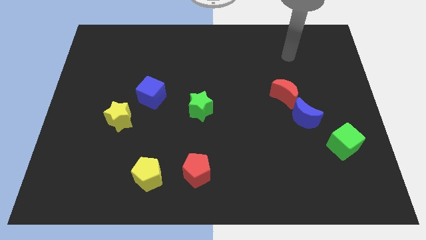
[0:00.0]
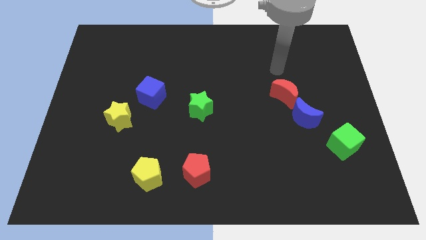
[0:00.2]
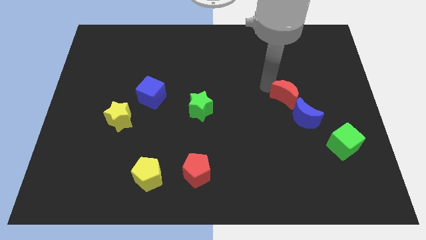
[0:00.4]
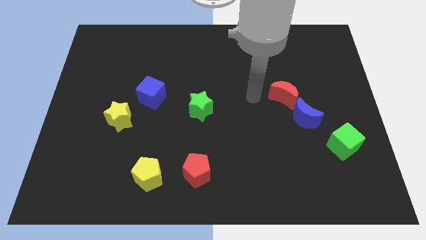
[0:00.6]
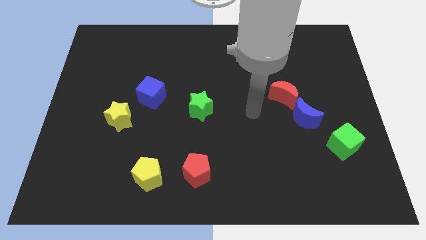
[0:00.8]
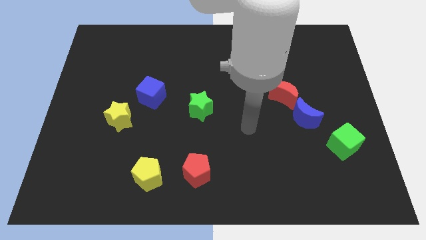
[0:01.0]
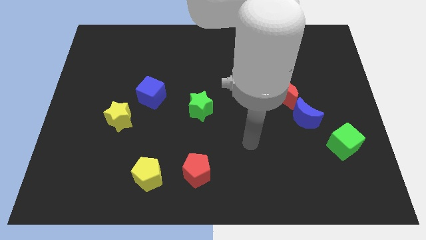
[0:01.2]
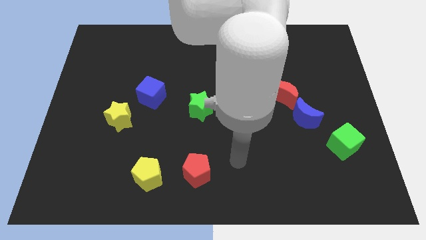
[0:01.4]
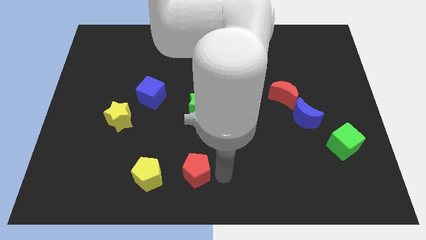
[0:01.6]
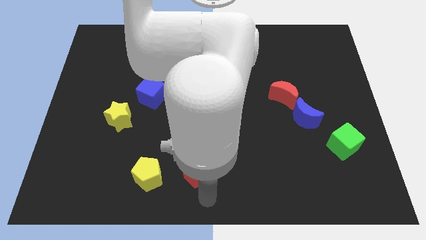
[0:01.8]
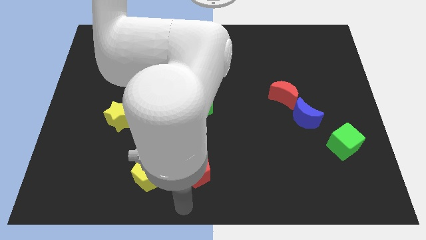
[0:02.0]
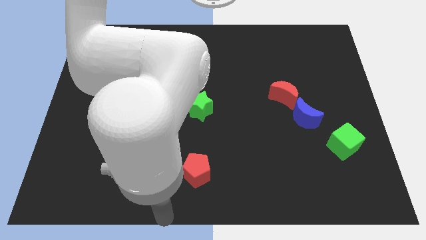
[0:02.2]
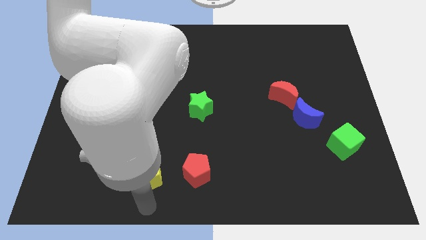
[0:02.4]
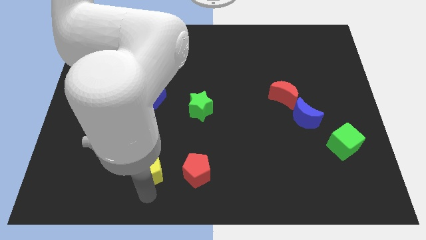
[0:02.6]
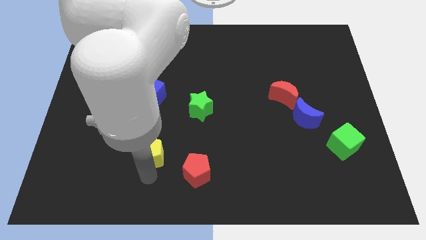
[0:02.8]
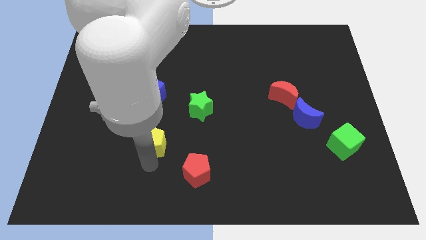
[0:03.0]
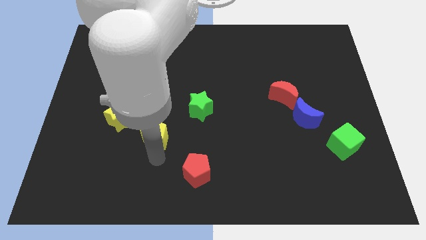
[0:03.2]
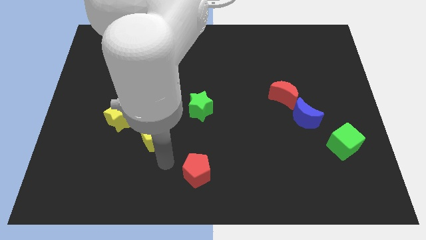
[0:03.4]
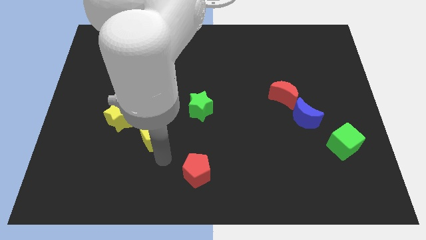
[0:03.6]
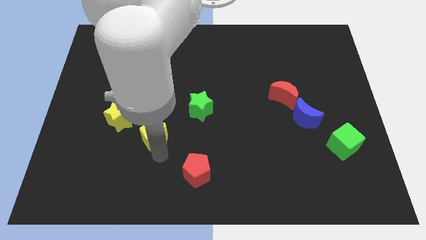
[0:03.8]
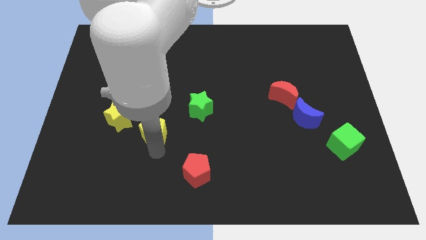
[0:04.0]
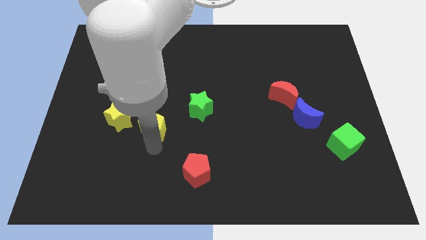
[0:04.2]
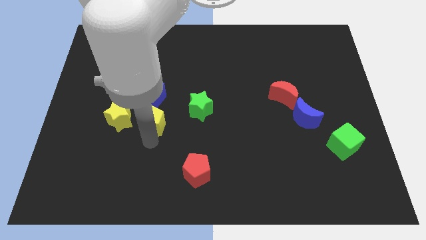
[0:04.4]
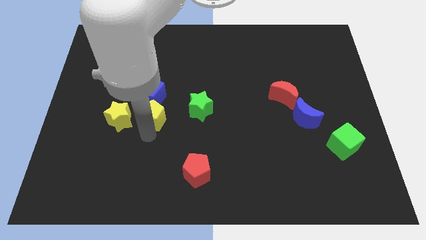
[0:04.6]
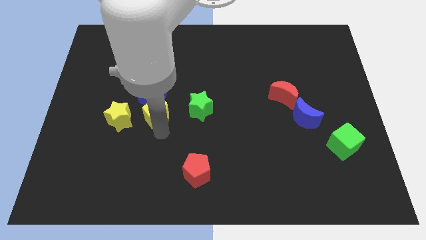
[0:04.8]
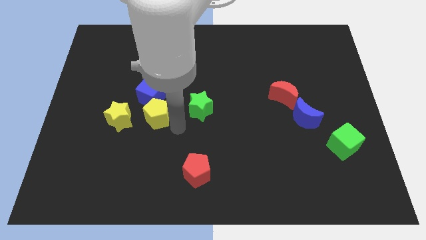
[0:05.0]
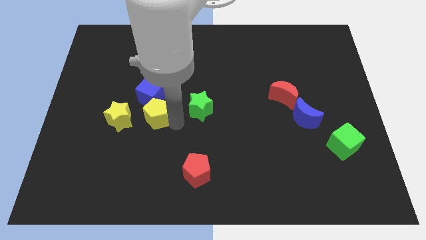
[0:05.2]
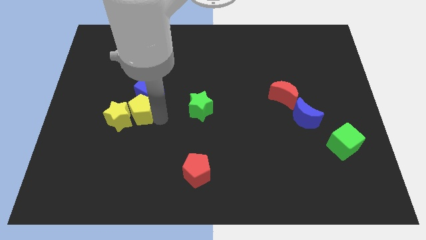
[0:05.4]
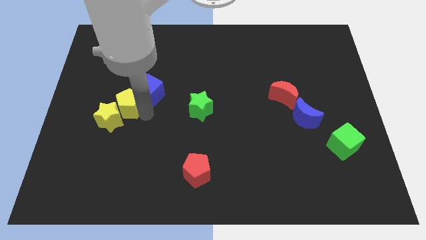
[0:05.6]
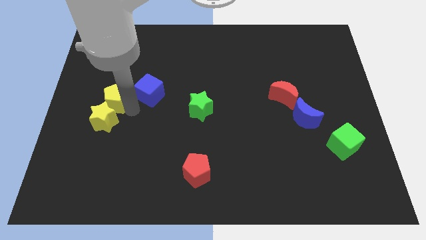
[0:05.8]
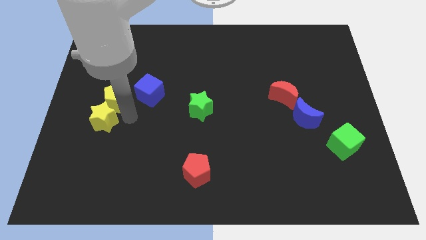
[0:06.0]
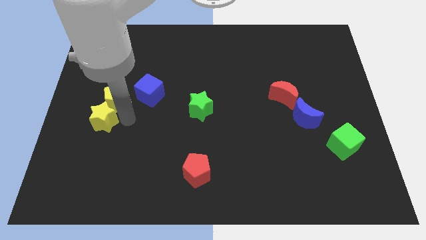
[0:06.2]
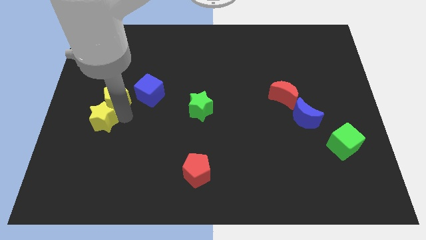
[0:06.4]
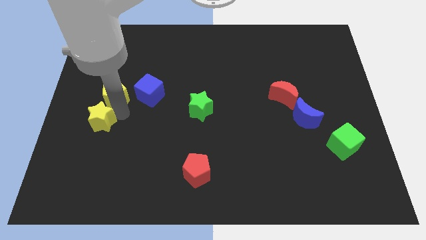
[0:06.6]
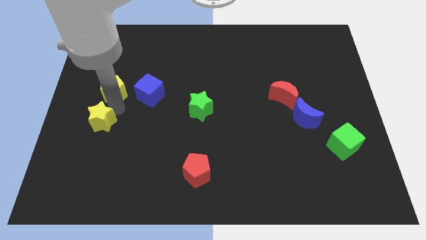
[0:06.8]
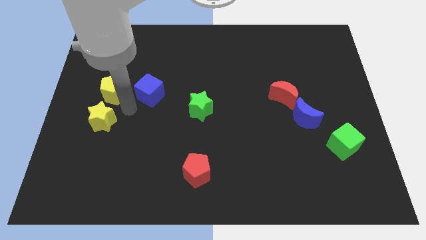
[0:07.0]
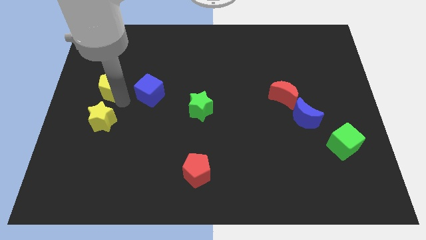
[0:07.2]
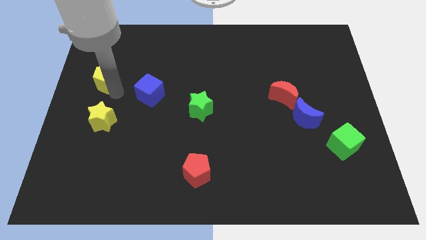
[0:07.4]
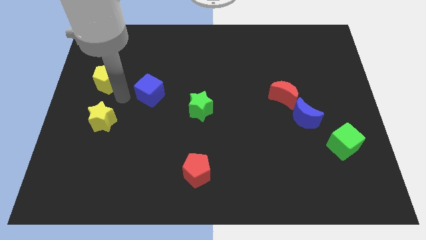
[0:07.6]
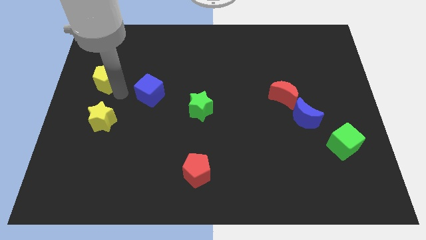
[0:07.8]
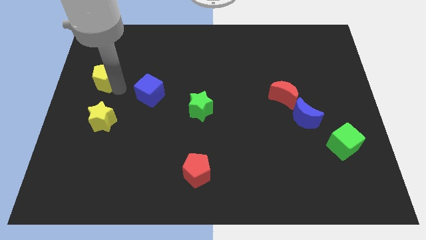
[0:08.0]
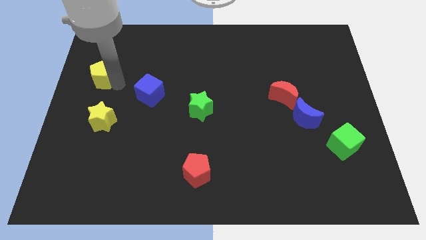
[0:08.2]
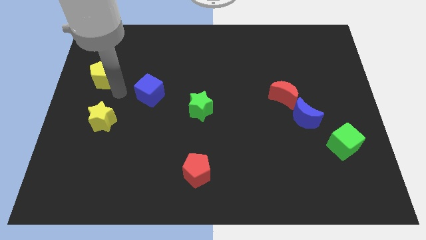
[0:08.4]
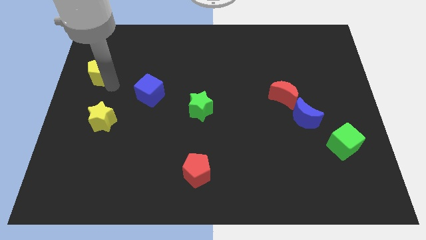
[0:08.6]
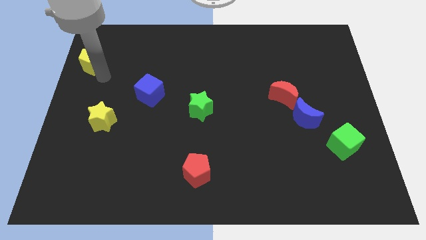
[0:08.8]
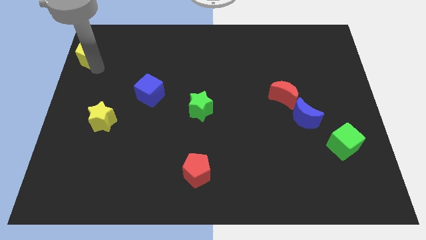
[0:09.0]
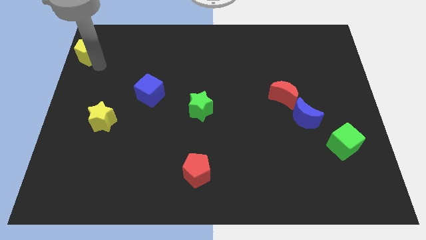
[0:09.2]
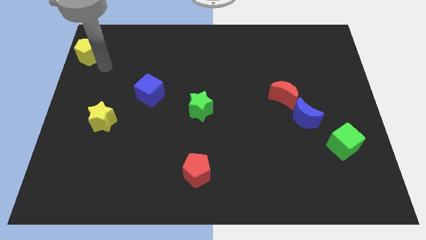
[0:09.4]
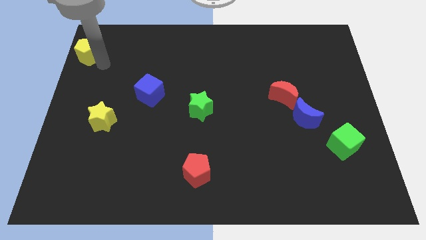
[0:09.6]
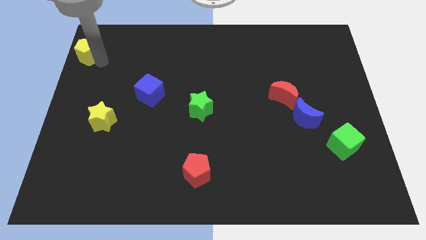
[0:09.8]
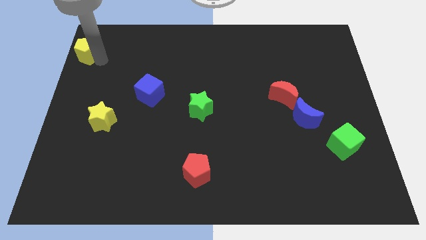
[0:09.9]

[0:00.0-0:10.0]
move the yellow pentagon to the upper left corner

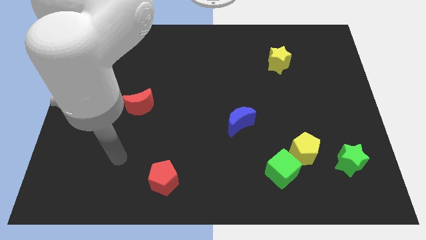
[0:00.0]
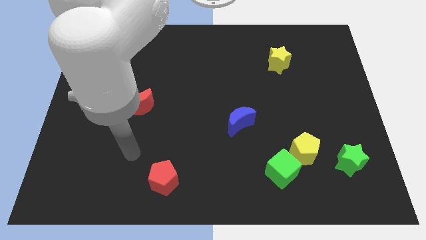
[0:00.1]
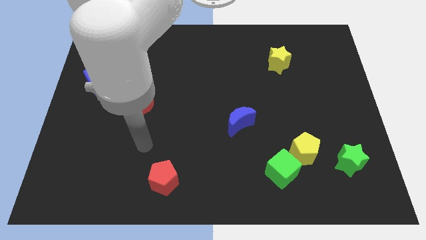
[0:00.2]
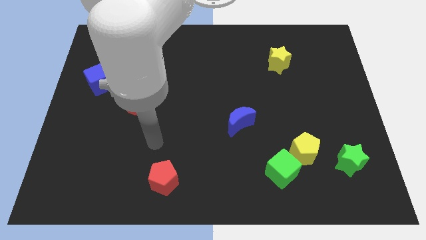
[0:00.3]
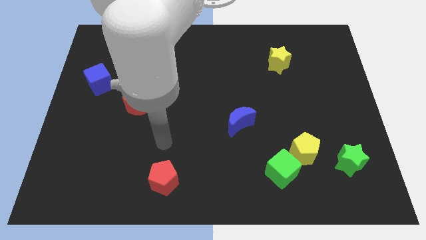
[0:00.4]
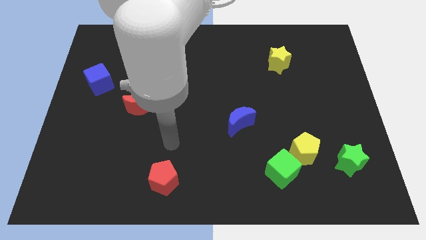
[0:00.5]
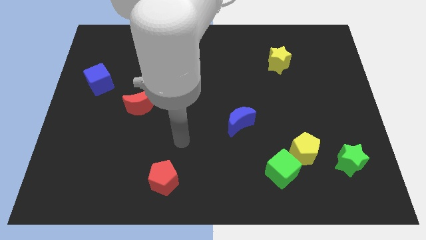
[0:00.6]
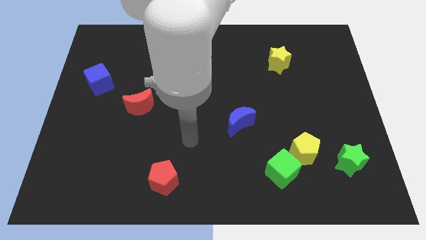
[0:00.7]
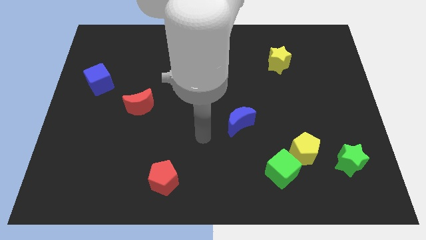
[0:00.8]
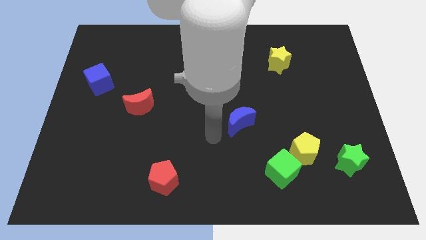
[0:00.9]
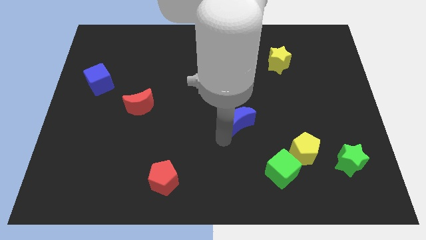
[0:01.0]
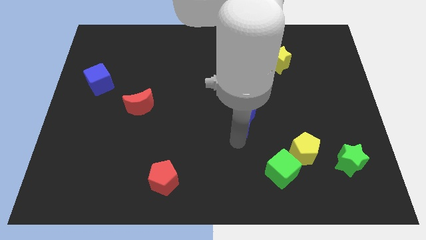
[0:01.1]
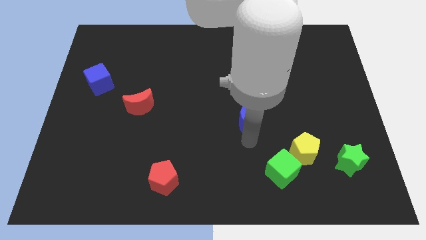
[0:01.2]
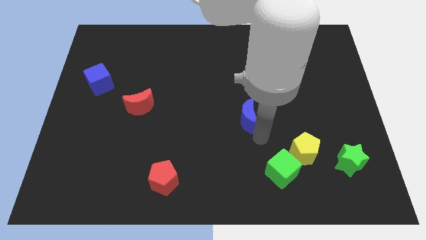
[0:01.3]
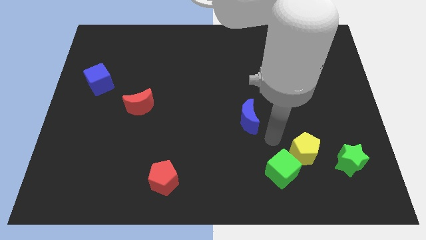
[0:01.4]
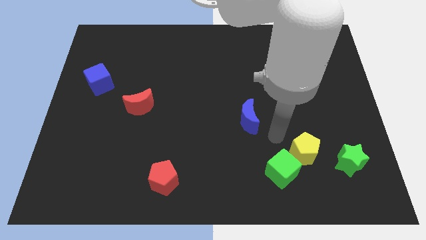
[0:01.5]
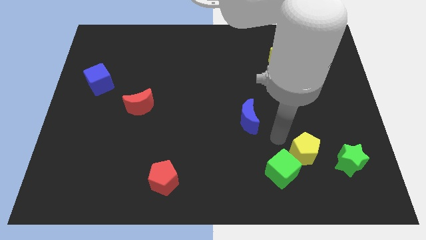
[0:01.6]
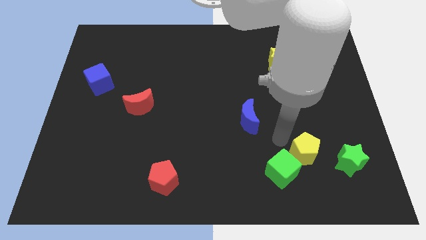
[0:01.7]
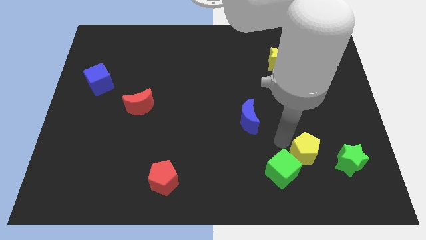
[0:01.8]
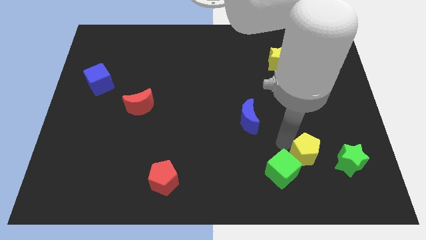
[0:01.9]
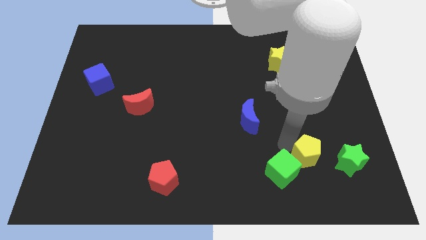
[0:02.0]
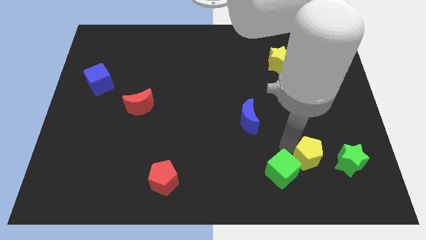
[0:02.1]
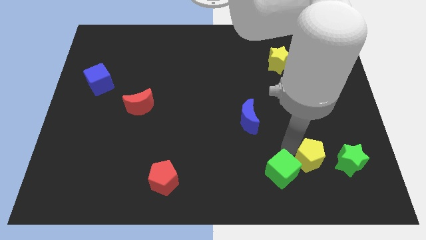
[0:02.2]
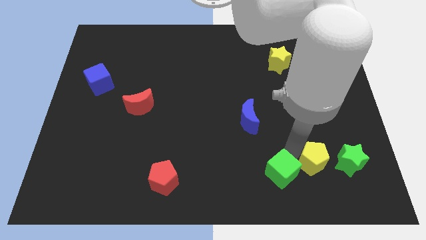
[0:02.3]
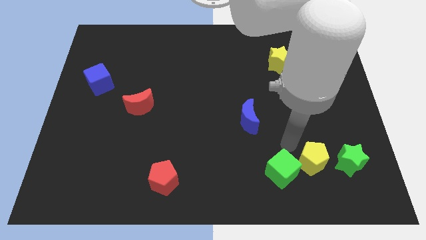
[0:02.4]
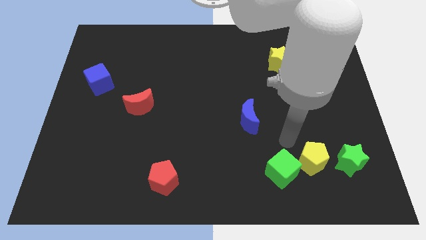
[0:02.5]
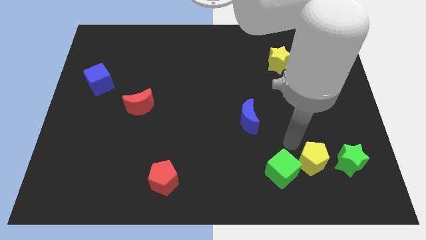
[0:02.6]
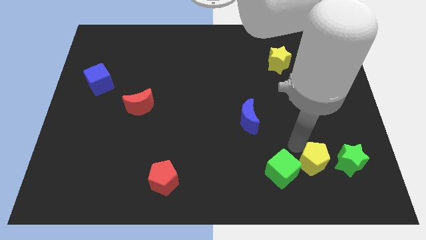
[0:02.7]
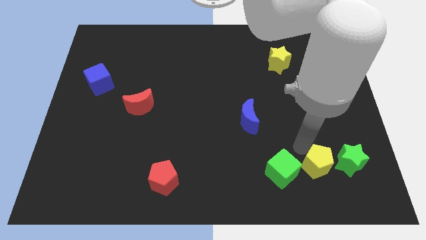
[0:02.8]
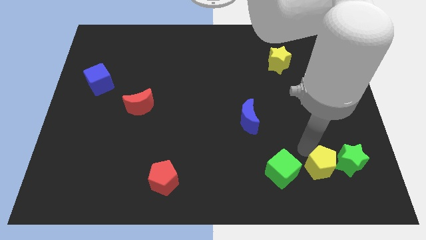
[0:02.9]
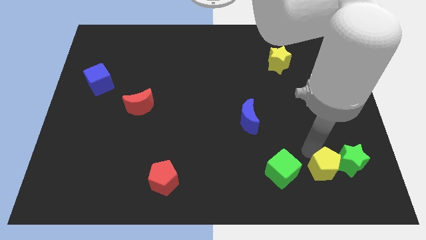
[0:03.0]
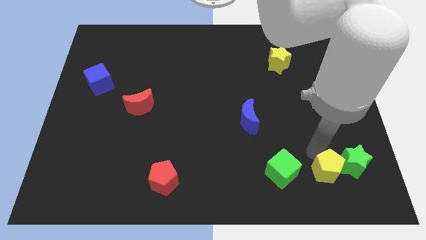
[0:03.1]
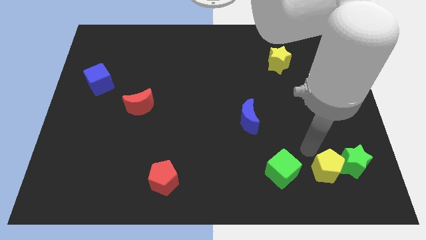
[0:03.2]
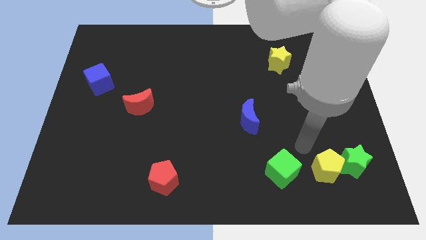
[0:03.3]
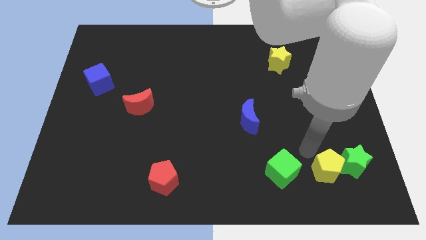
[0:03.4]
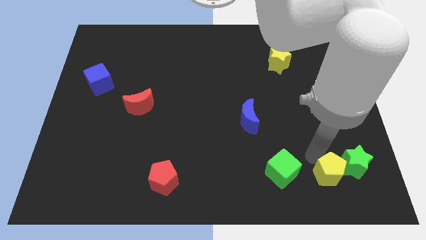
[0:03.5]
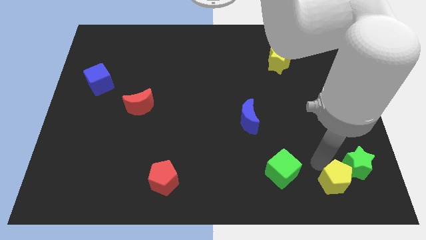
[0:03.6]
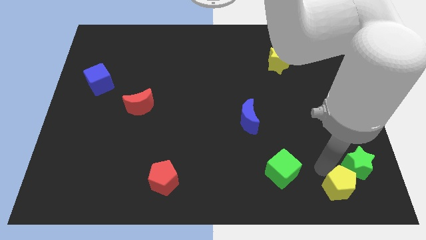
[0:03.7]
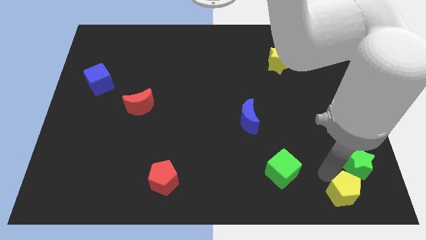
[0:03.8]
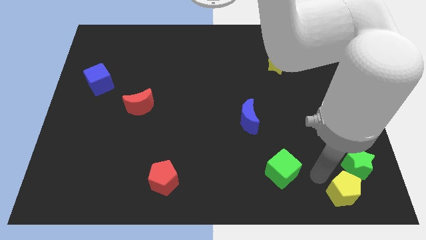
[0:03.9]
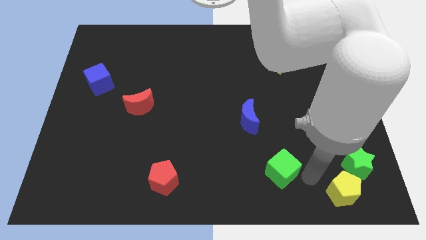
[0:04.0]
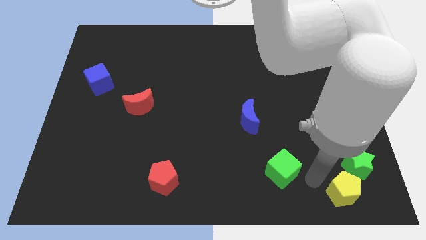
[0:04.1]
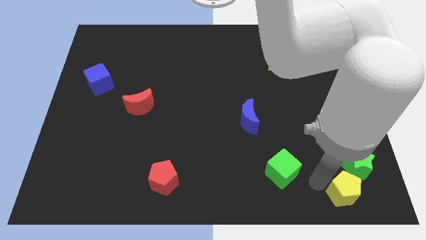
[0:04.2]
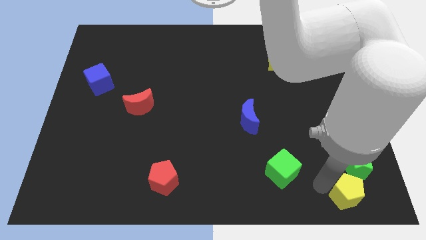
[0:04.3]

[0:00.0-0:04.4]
slide the yellow pentagon to the bottom right
